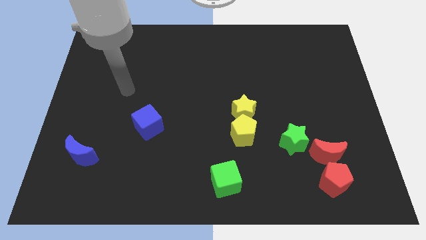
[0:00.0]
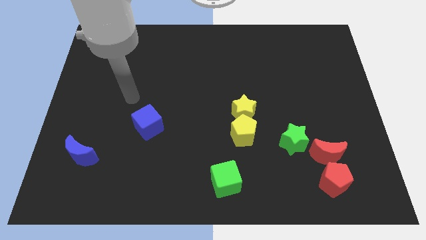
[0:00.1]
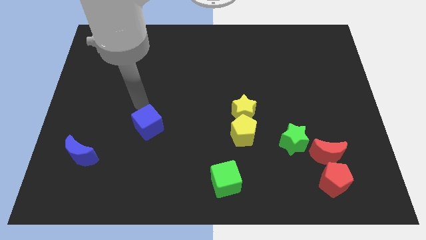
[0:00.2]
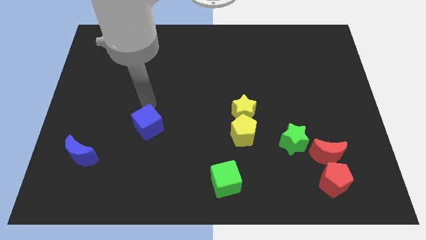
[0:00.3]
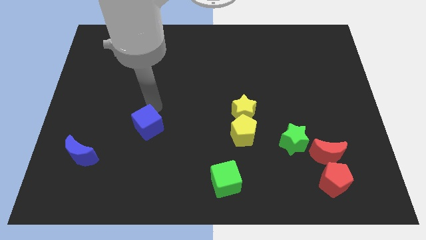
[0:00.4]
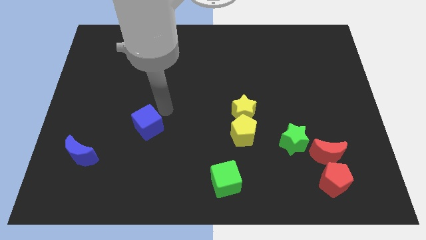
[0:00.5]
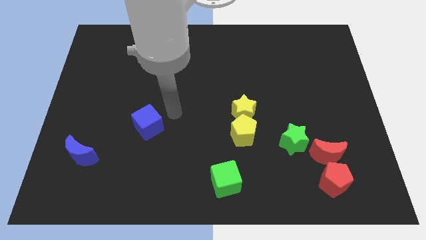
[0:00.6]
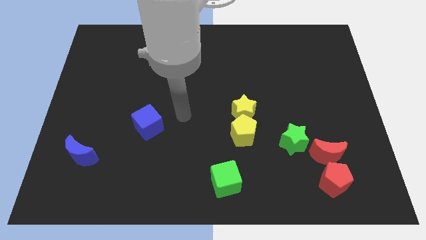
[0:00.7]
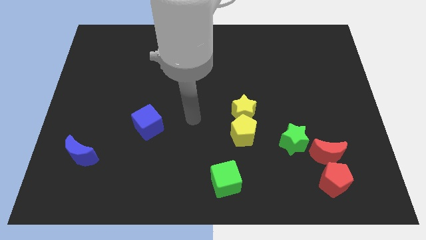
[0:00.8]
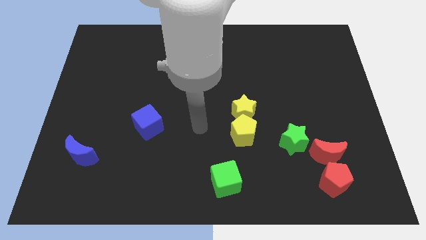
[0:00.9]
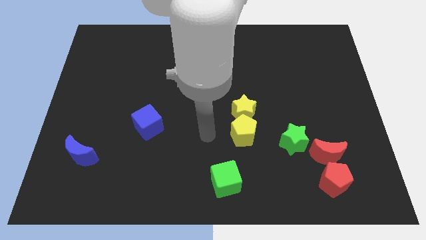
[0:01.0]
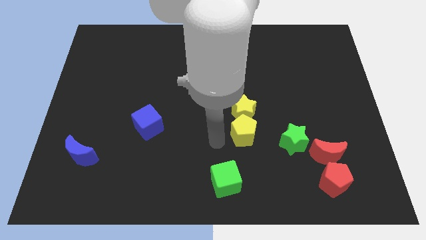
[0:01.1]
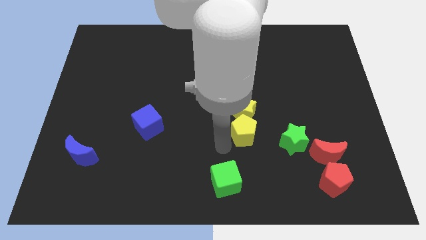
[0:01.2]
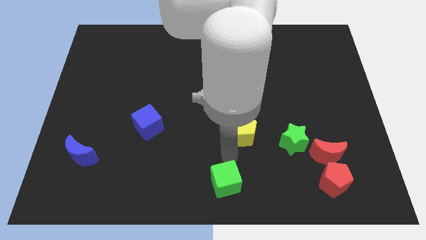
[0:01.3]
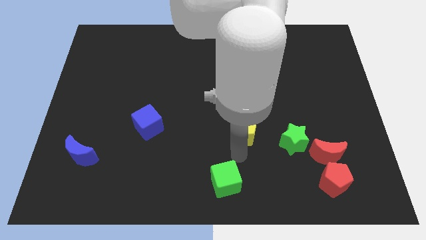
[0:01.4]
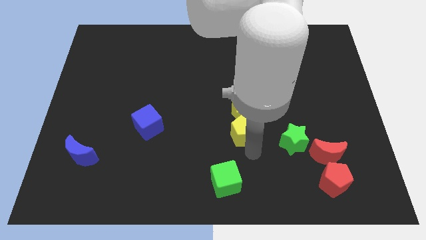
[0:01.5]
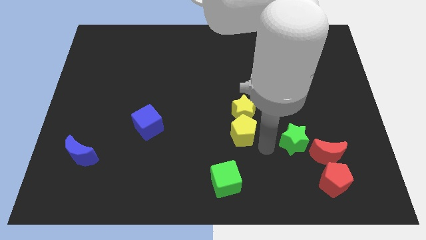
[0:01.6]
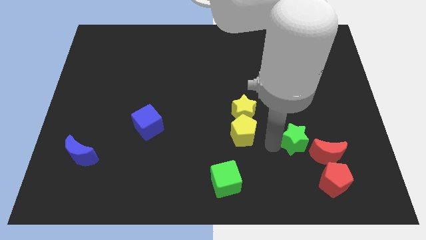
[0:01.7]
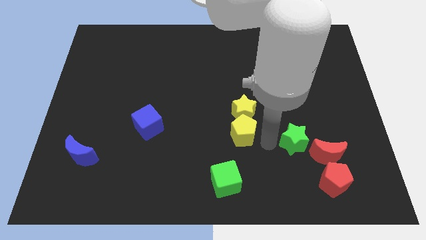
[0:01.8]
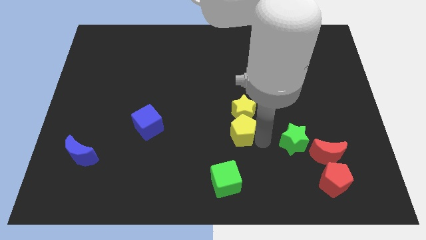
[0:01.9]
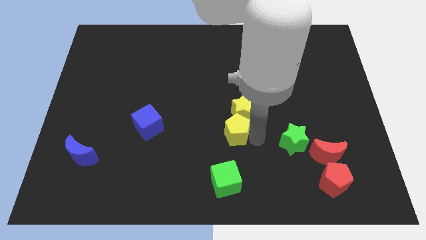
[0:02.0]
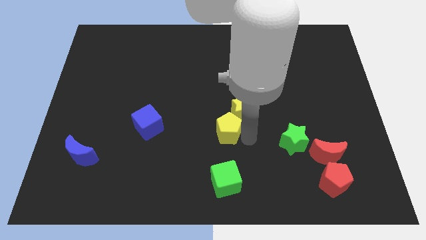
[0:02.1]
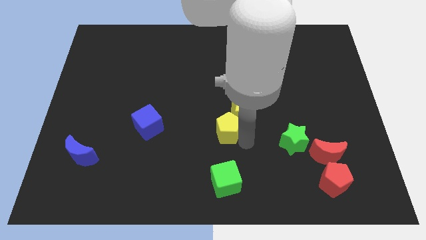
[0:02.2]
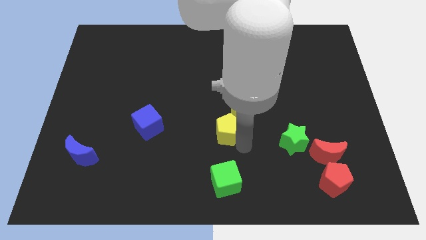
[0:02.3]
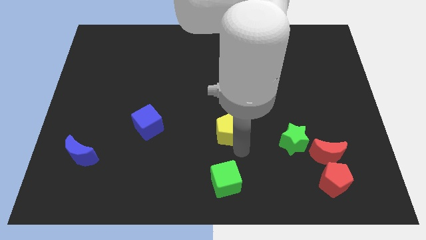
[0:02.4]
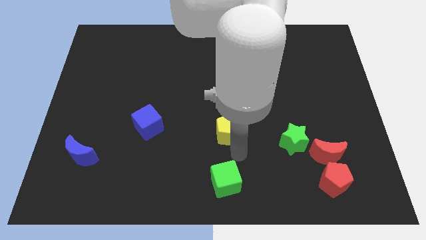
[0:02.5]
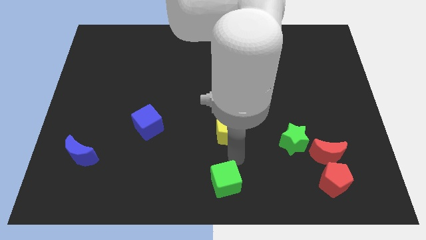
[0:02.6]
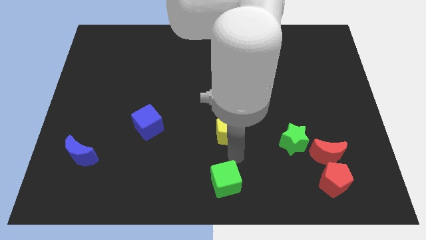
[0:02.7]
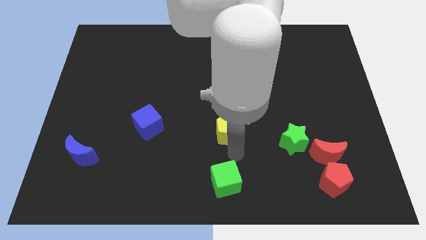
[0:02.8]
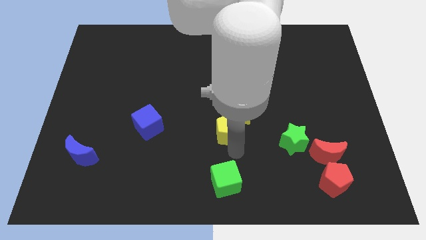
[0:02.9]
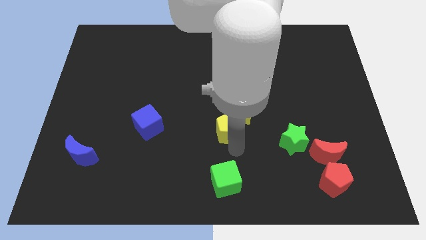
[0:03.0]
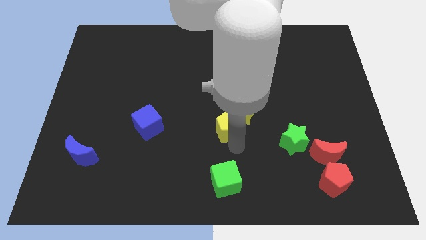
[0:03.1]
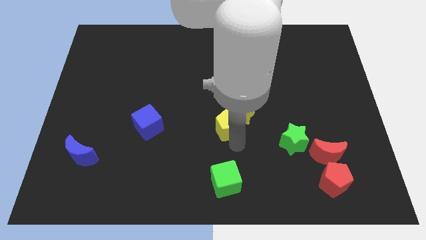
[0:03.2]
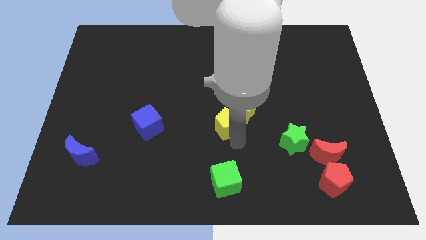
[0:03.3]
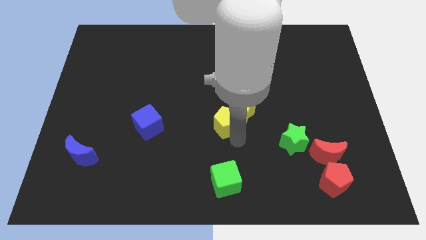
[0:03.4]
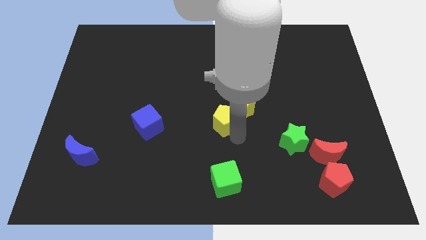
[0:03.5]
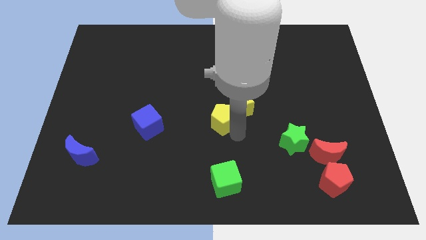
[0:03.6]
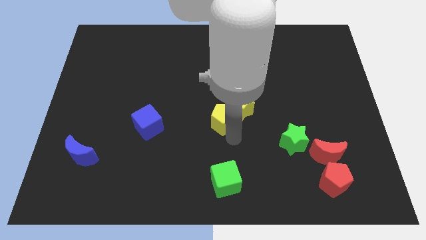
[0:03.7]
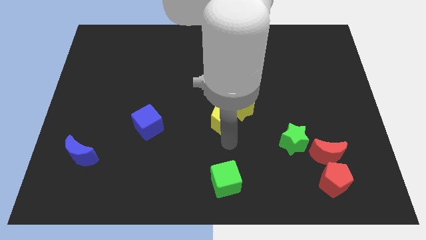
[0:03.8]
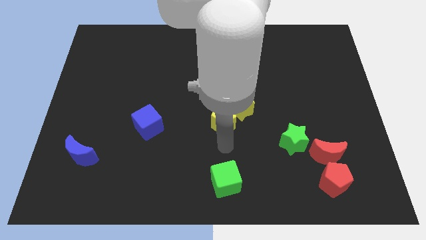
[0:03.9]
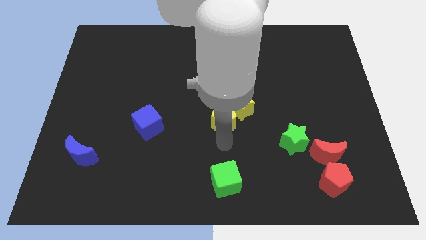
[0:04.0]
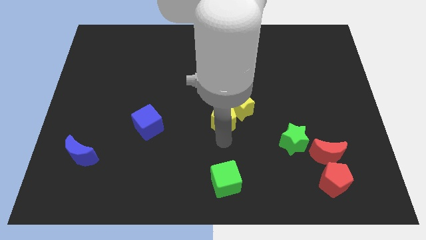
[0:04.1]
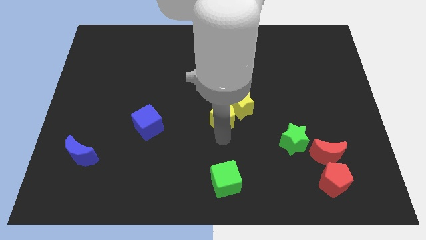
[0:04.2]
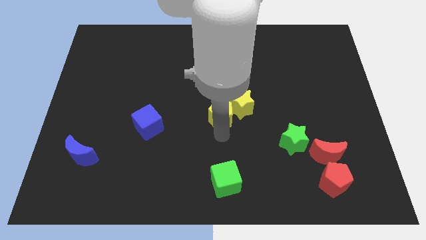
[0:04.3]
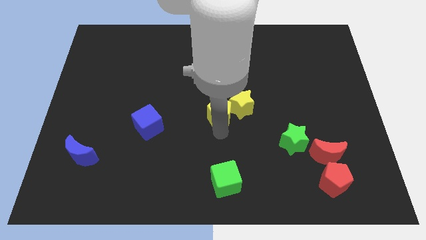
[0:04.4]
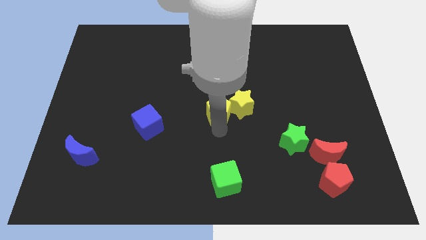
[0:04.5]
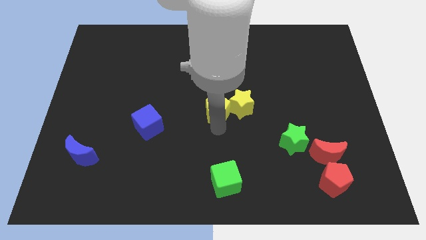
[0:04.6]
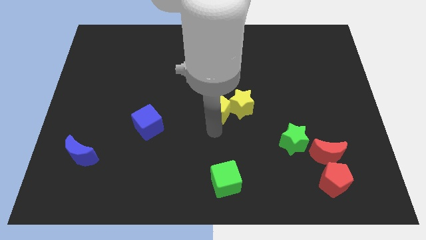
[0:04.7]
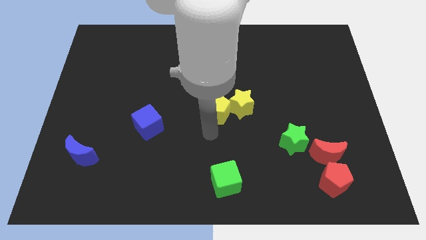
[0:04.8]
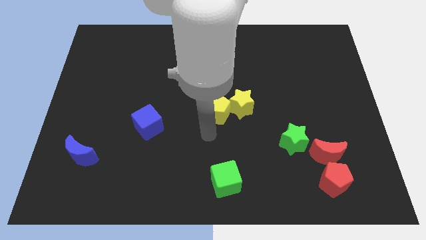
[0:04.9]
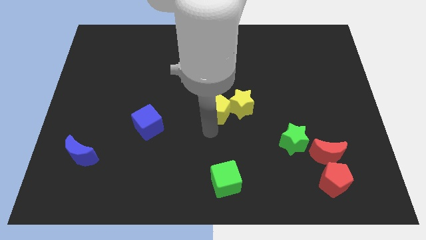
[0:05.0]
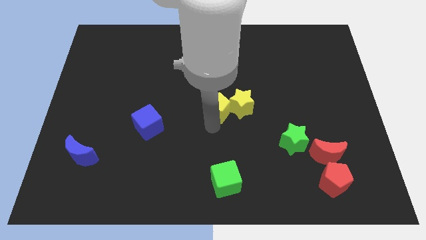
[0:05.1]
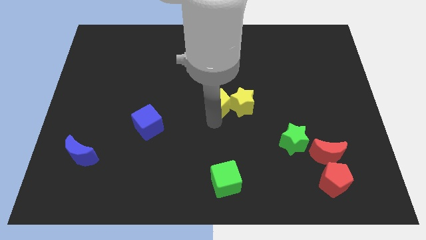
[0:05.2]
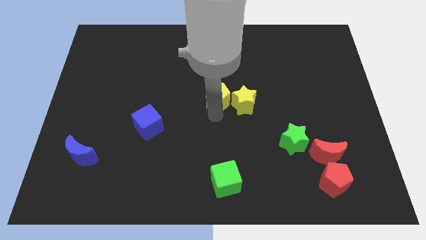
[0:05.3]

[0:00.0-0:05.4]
move the yellow pentagon slightly upwards

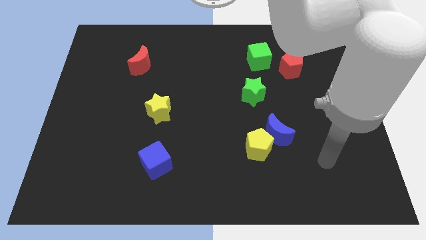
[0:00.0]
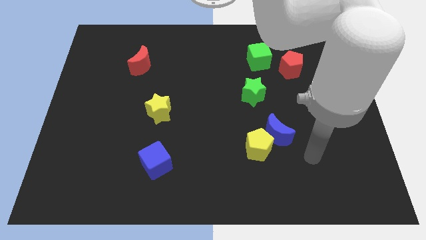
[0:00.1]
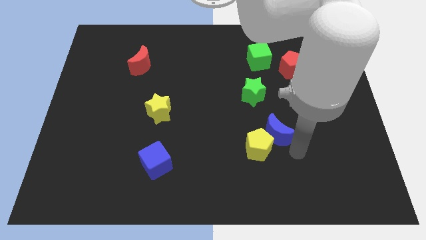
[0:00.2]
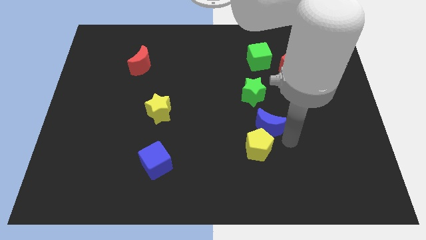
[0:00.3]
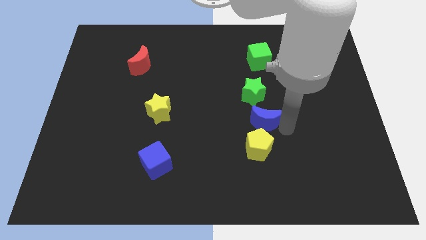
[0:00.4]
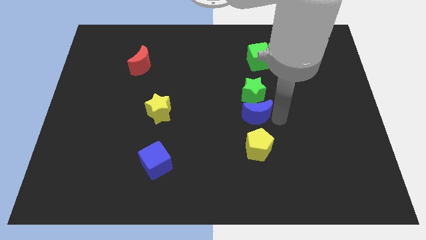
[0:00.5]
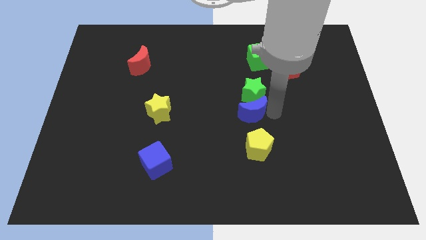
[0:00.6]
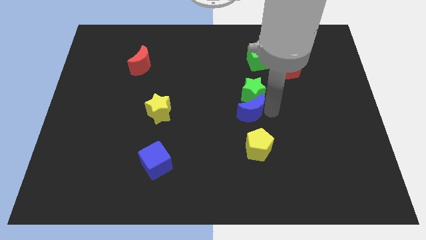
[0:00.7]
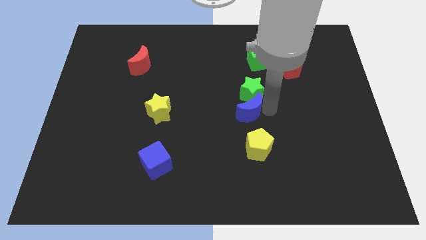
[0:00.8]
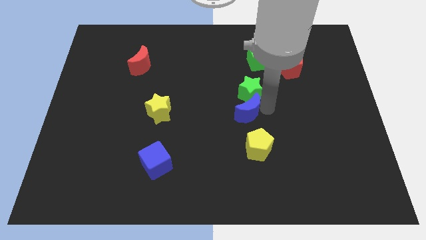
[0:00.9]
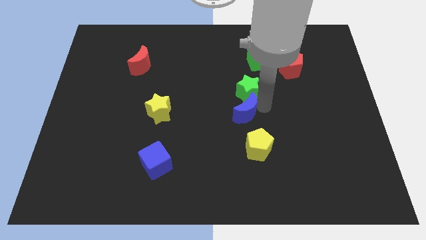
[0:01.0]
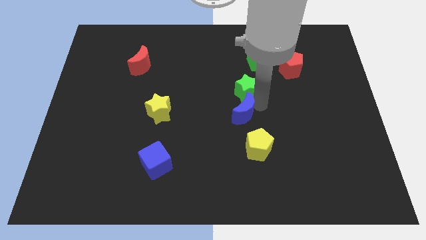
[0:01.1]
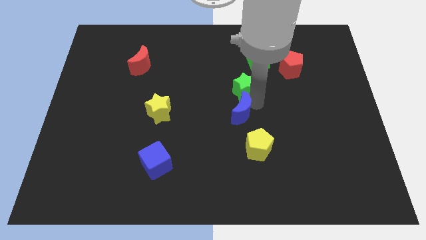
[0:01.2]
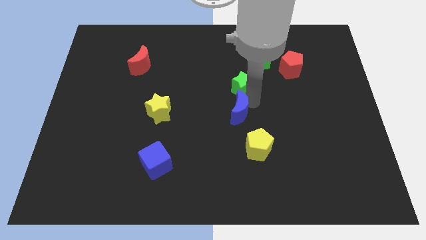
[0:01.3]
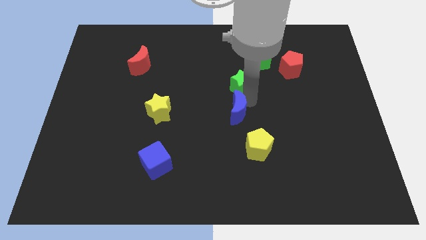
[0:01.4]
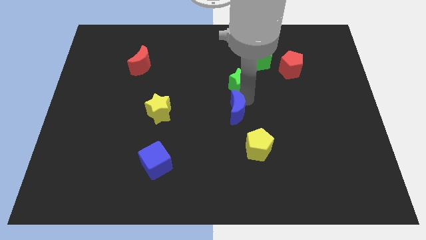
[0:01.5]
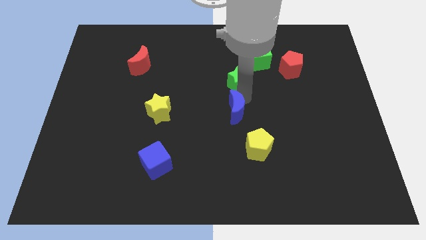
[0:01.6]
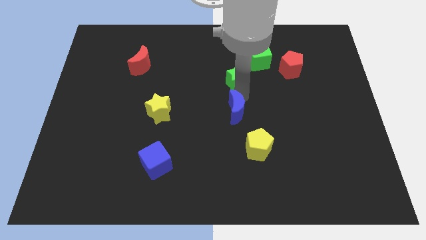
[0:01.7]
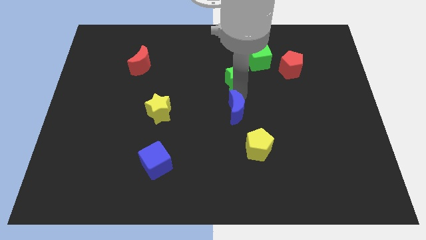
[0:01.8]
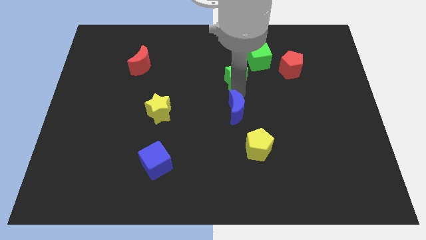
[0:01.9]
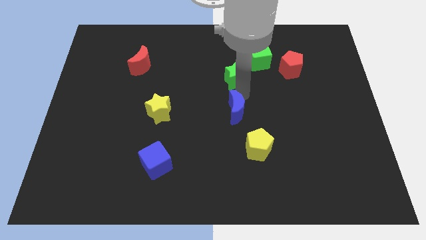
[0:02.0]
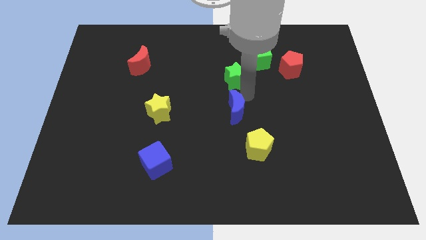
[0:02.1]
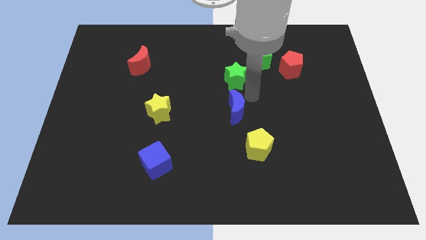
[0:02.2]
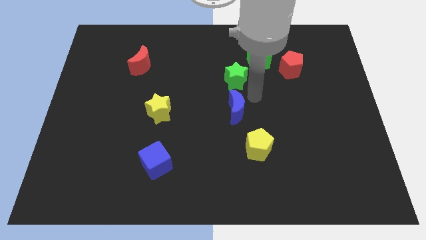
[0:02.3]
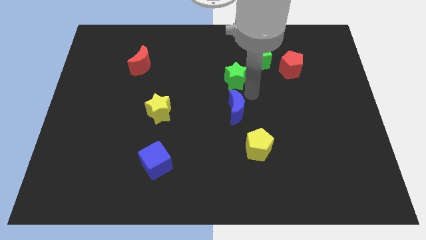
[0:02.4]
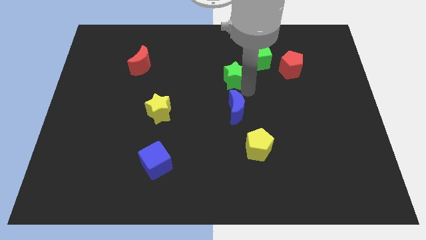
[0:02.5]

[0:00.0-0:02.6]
move the green star diagonally upwards and left slightly

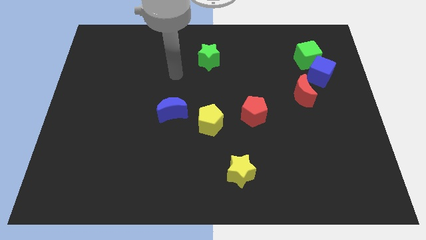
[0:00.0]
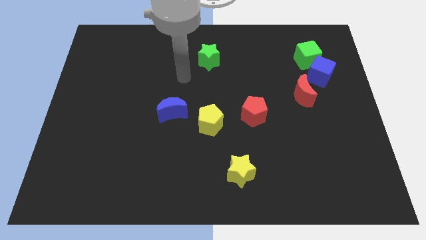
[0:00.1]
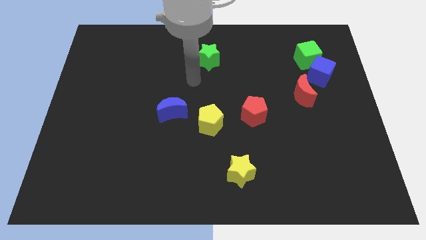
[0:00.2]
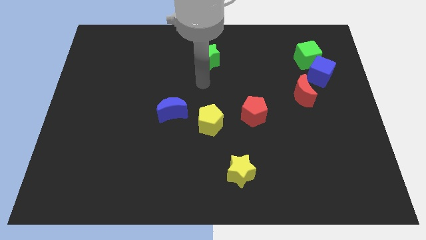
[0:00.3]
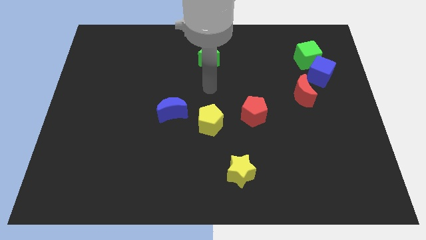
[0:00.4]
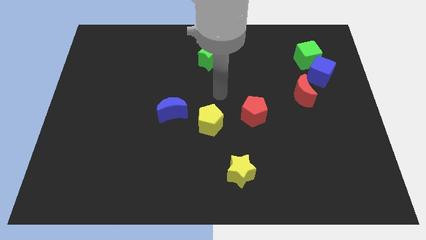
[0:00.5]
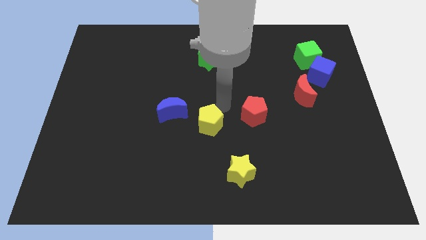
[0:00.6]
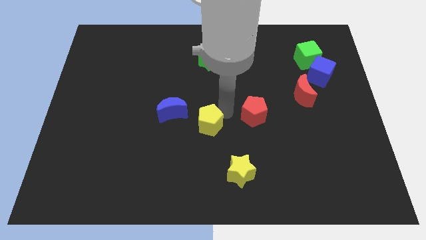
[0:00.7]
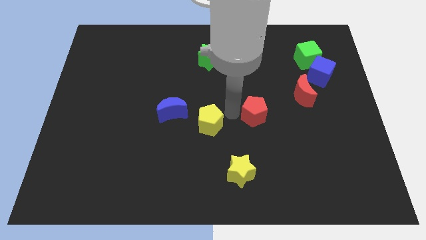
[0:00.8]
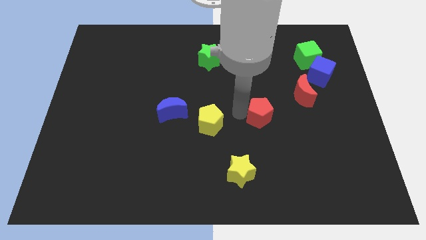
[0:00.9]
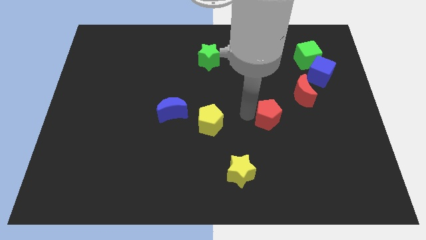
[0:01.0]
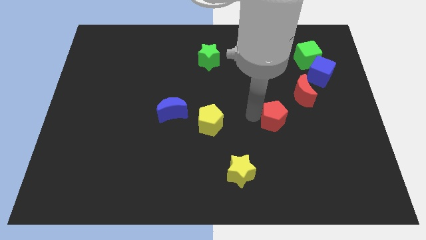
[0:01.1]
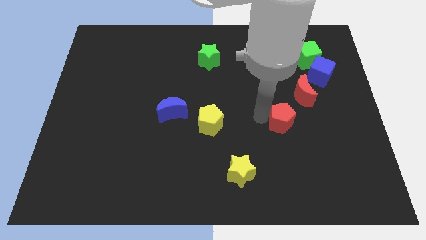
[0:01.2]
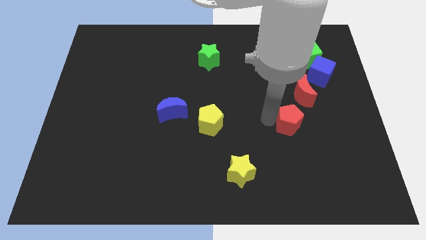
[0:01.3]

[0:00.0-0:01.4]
slightly slide the red pentagon to the right
